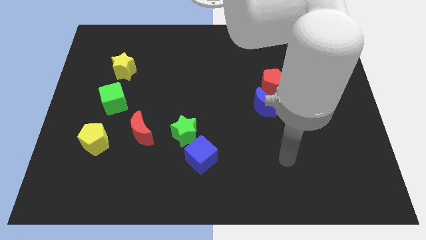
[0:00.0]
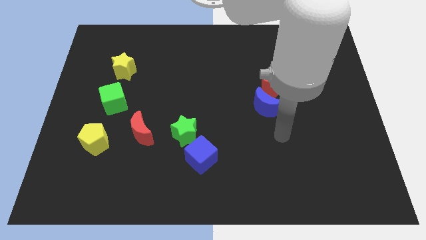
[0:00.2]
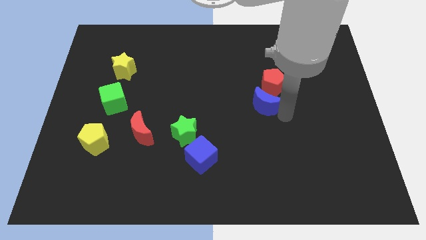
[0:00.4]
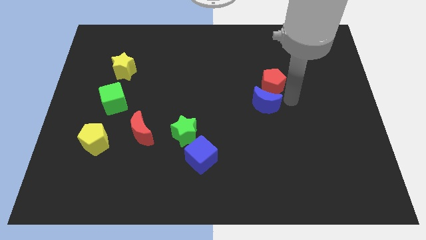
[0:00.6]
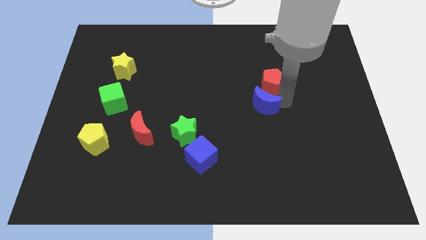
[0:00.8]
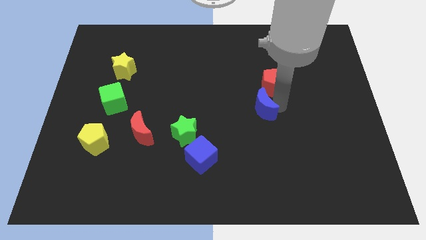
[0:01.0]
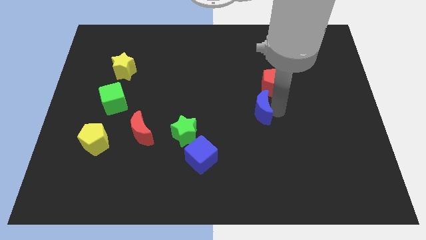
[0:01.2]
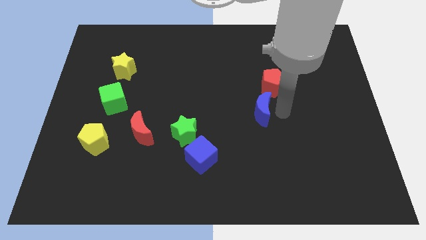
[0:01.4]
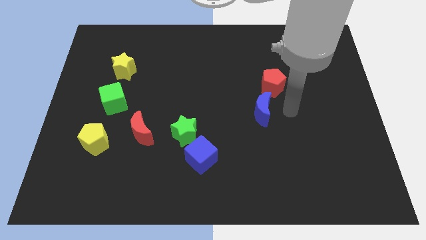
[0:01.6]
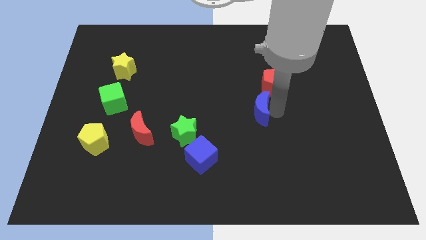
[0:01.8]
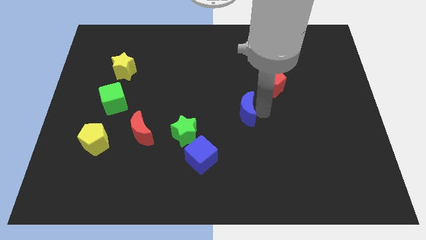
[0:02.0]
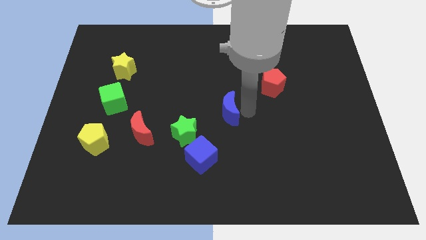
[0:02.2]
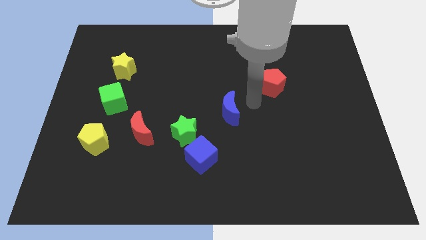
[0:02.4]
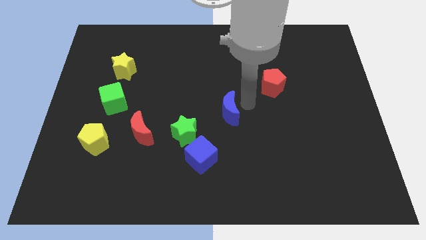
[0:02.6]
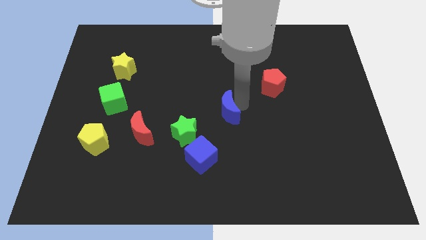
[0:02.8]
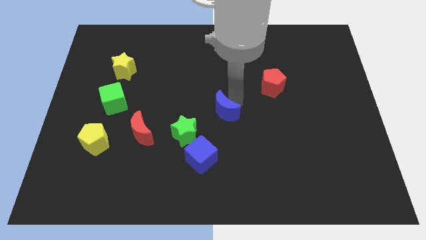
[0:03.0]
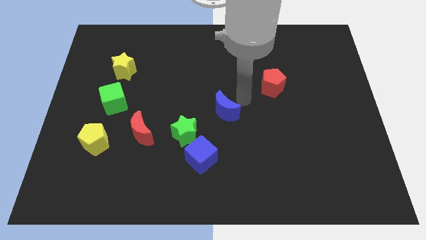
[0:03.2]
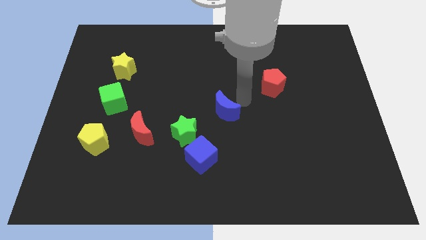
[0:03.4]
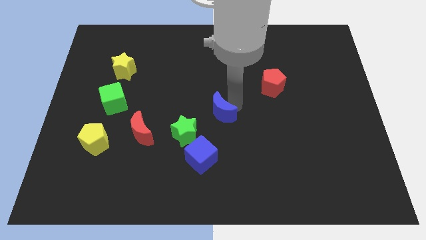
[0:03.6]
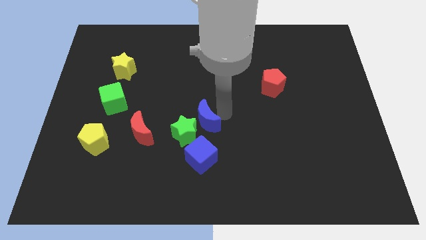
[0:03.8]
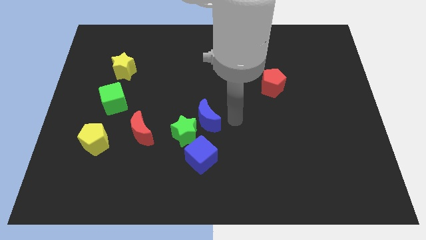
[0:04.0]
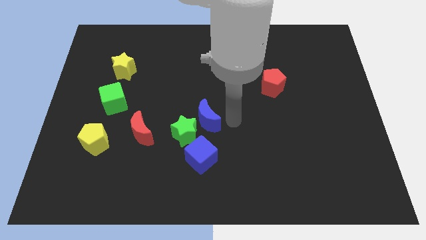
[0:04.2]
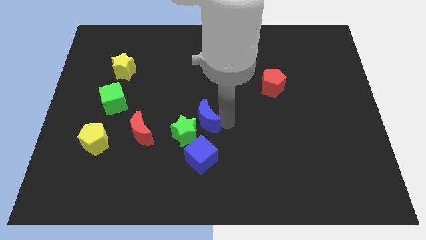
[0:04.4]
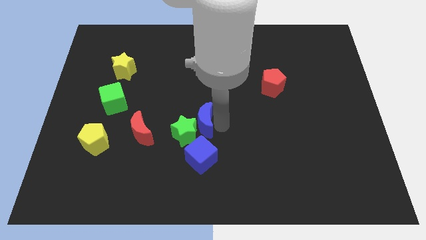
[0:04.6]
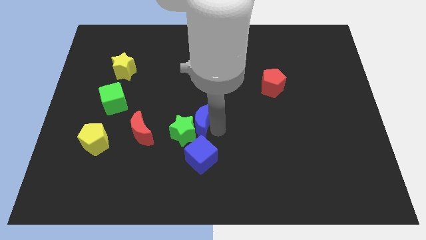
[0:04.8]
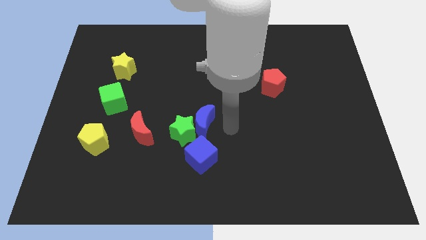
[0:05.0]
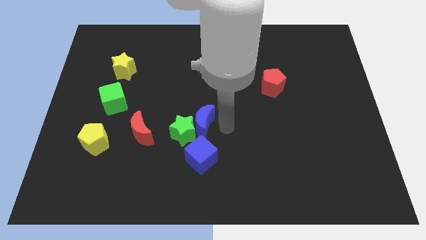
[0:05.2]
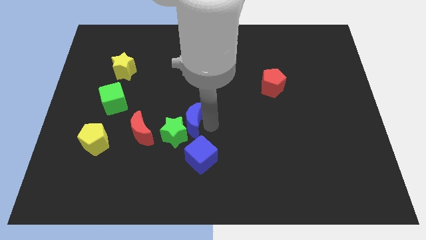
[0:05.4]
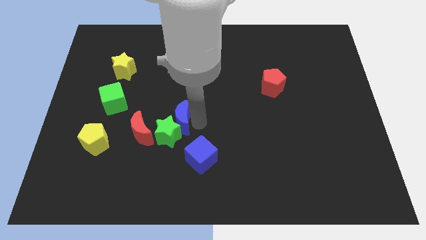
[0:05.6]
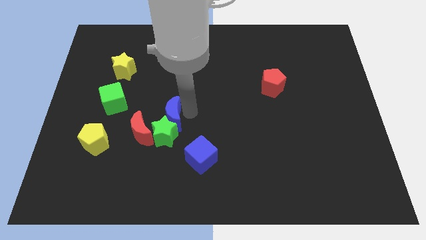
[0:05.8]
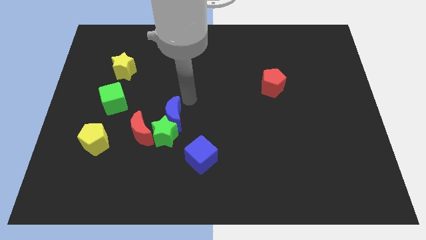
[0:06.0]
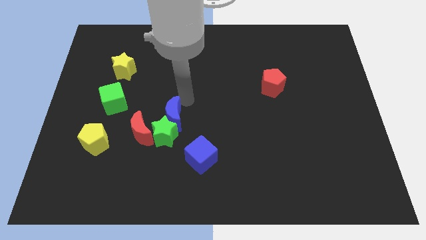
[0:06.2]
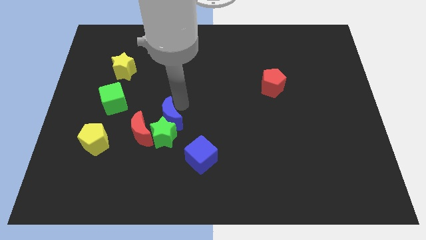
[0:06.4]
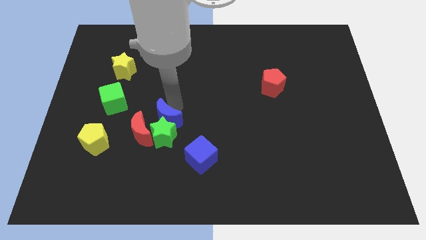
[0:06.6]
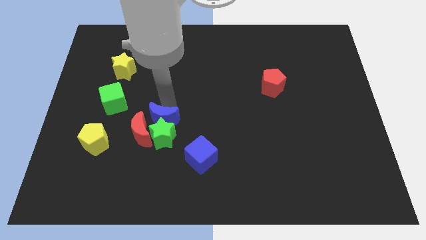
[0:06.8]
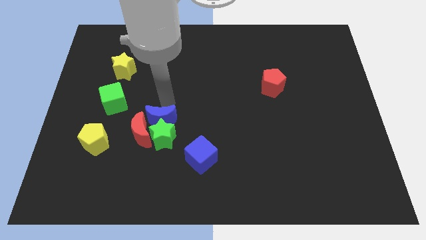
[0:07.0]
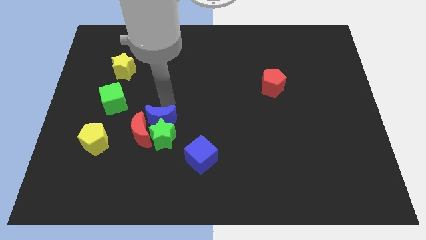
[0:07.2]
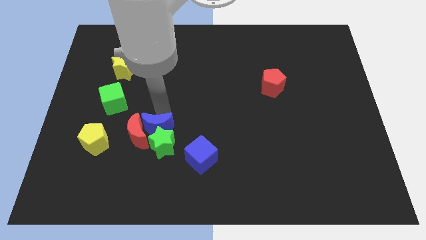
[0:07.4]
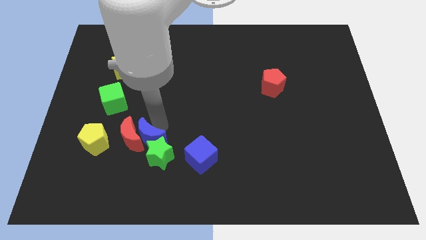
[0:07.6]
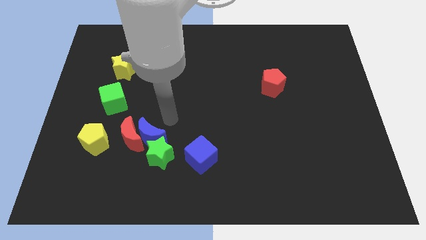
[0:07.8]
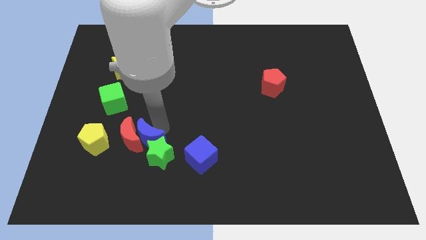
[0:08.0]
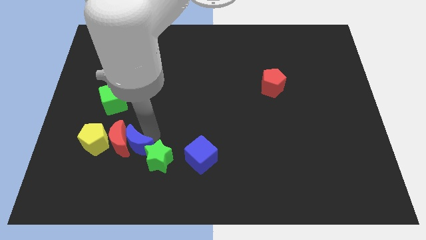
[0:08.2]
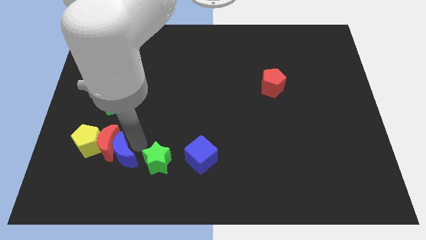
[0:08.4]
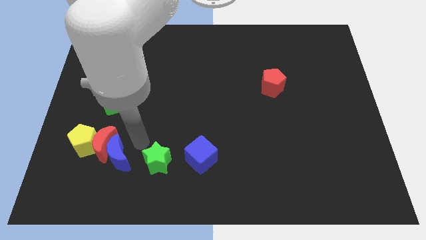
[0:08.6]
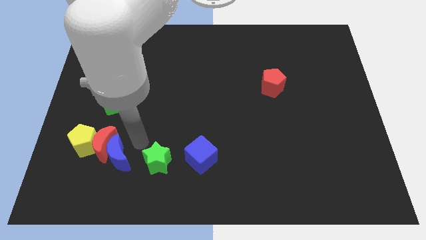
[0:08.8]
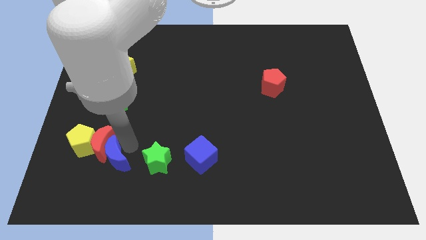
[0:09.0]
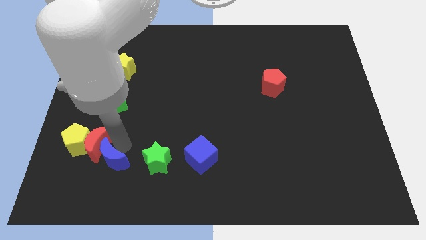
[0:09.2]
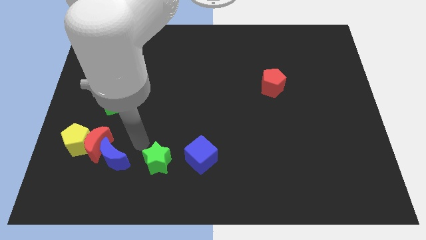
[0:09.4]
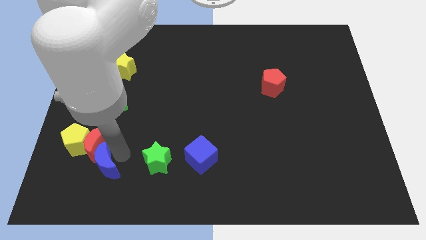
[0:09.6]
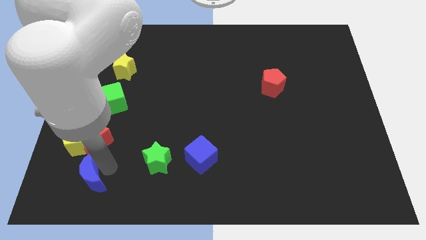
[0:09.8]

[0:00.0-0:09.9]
put the blue moon to the bottom of the yellow pentagon

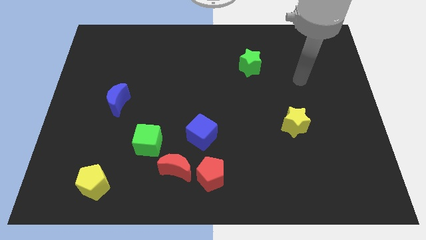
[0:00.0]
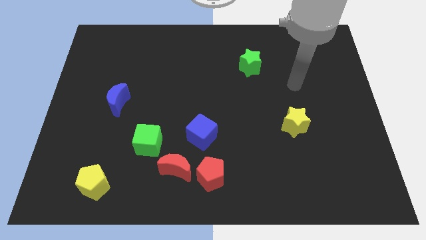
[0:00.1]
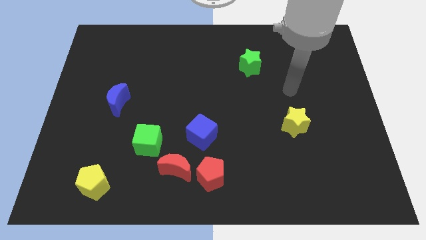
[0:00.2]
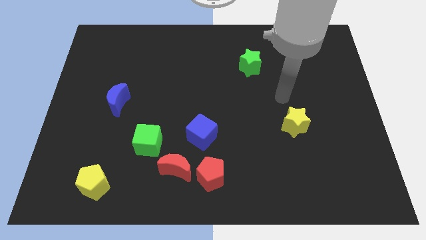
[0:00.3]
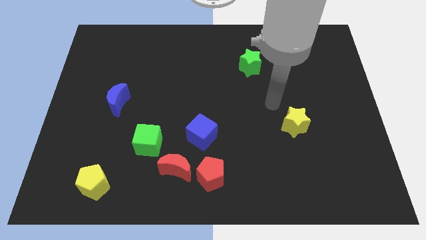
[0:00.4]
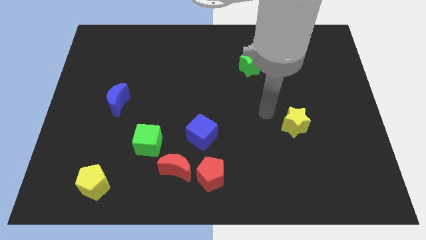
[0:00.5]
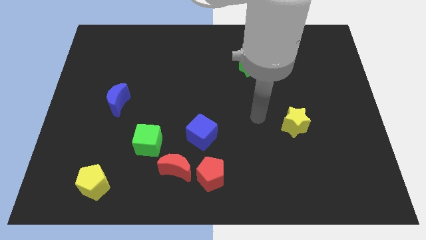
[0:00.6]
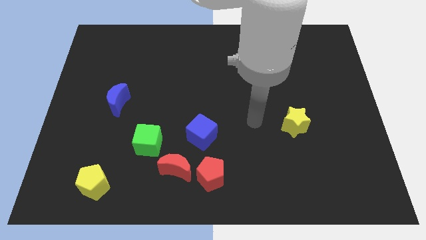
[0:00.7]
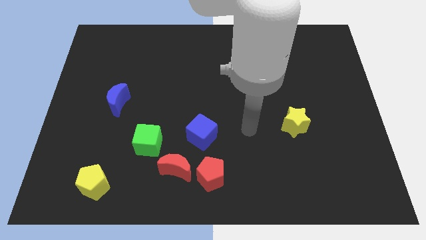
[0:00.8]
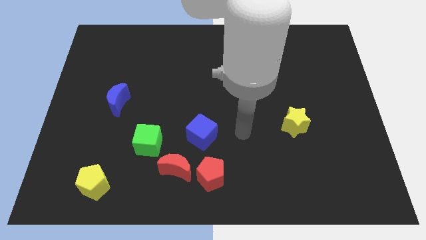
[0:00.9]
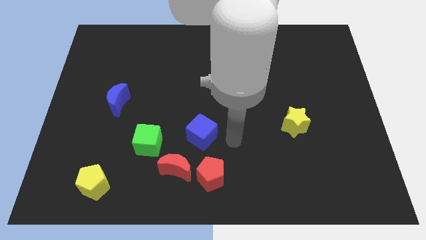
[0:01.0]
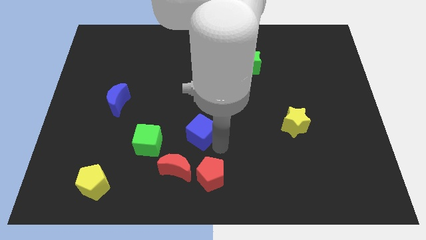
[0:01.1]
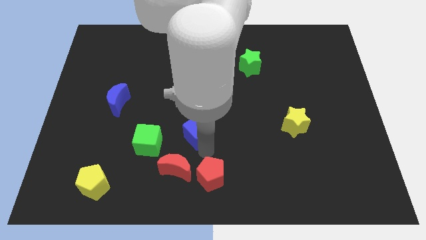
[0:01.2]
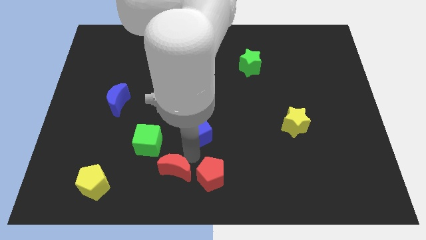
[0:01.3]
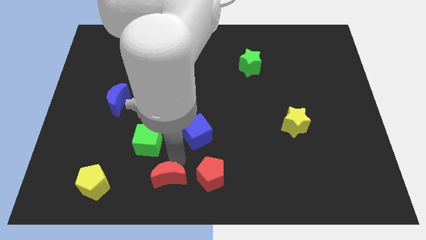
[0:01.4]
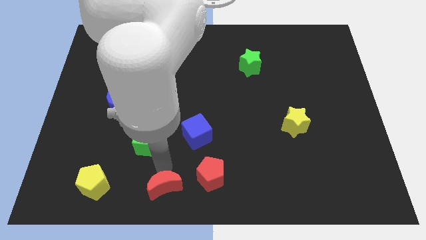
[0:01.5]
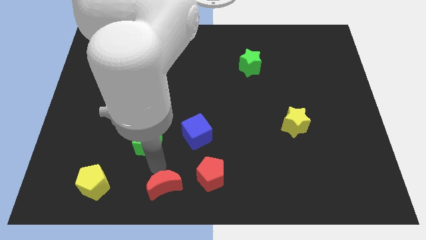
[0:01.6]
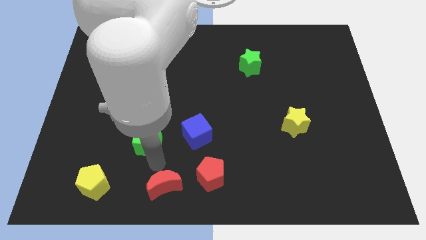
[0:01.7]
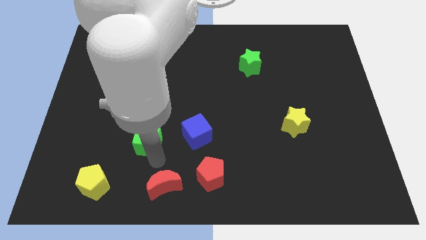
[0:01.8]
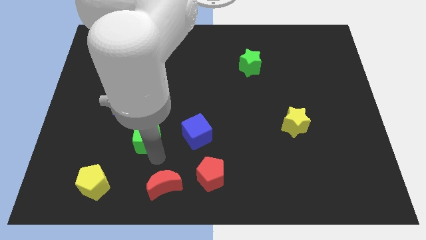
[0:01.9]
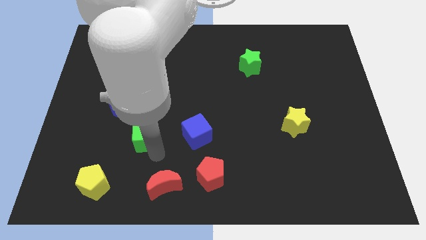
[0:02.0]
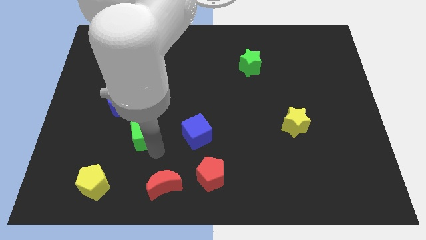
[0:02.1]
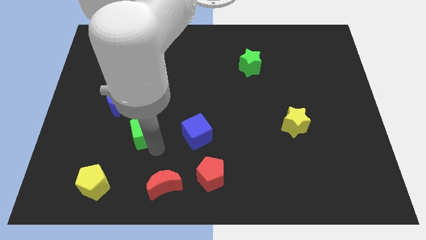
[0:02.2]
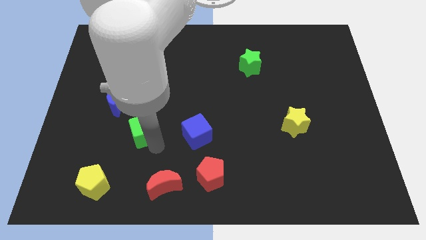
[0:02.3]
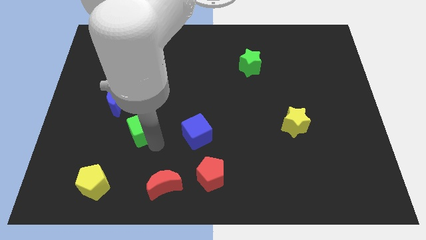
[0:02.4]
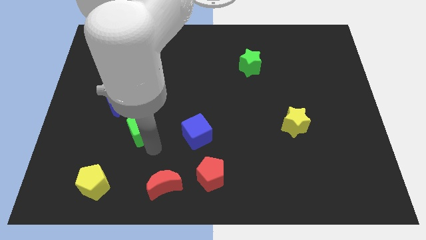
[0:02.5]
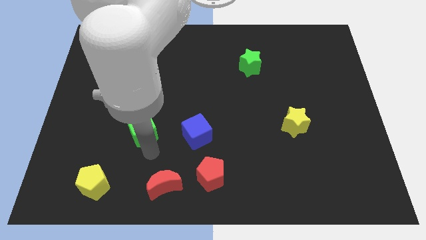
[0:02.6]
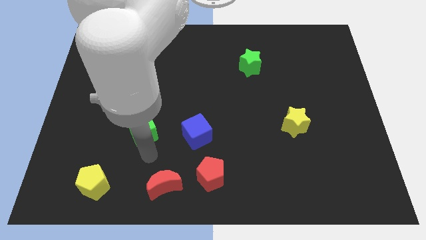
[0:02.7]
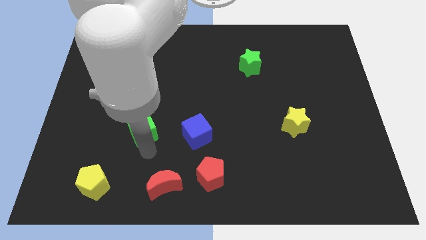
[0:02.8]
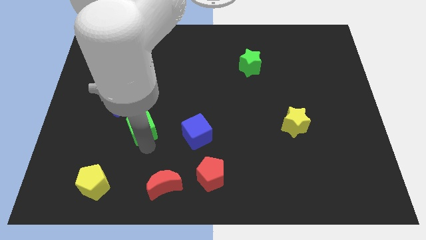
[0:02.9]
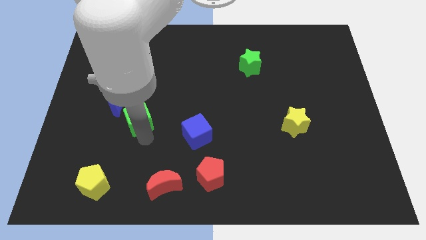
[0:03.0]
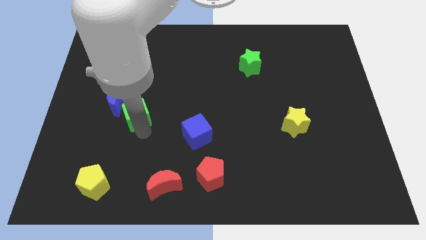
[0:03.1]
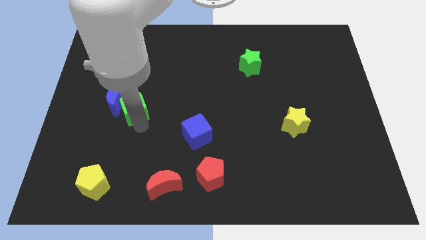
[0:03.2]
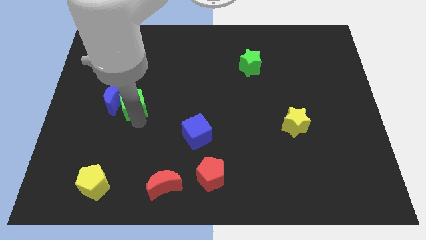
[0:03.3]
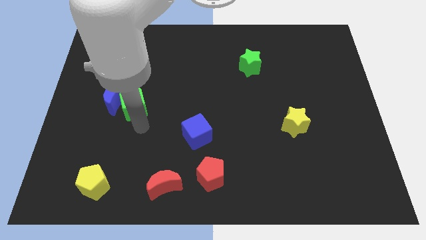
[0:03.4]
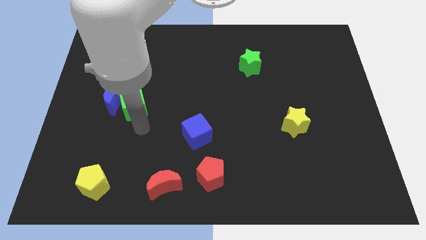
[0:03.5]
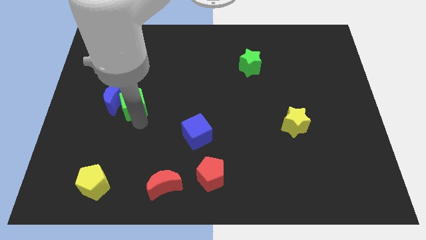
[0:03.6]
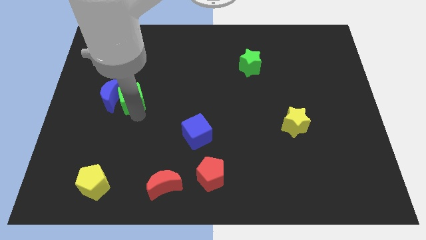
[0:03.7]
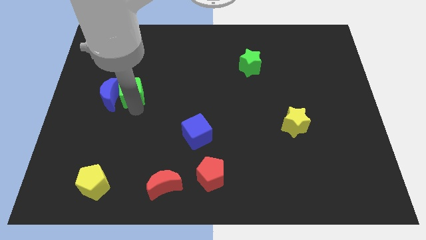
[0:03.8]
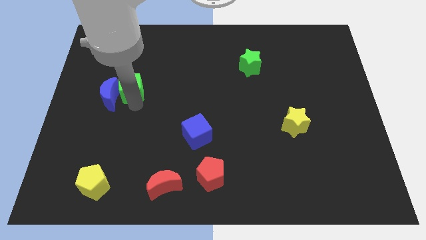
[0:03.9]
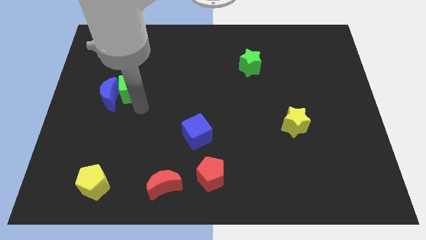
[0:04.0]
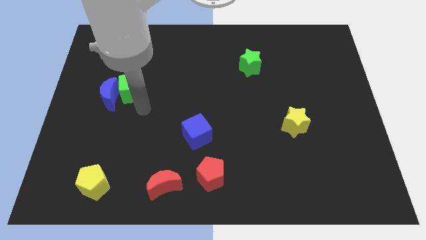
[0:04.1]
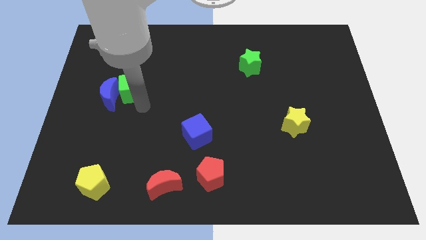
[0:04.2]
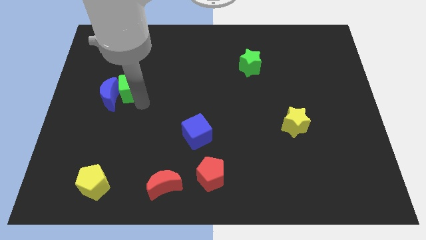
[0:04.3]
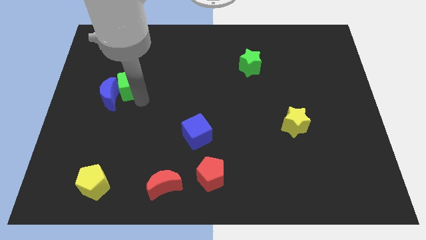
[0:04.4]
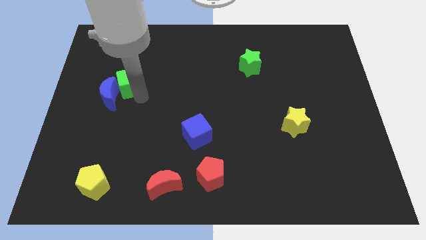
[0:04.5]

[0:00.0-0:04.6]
put the green cube to the top side of the blue moon
